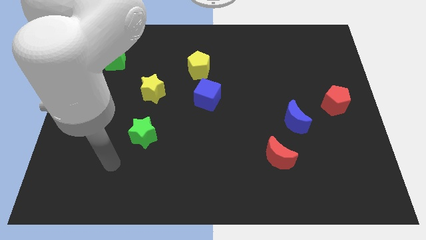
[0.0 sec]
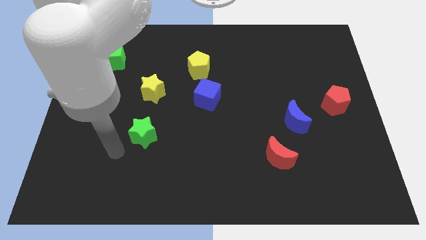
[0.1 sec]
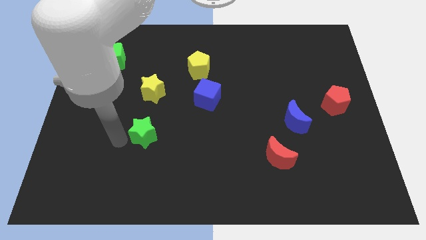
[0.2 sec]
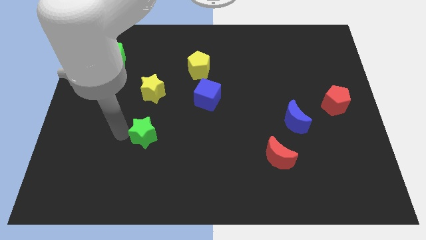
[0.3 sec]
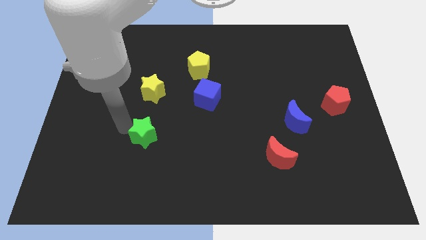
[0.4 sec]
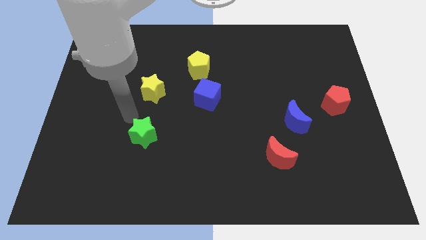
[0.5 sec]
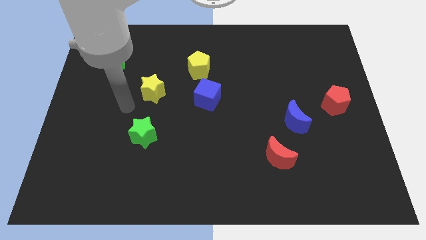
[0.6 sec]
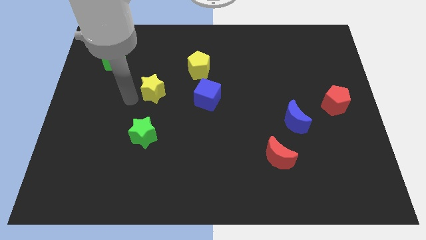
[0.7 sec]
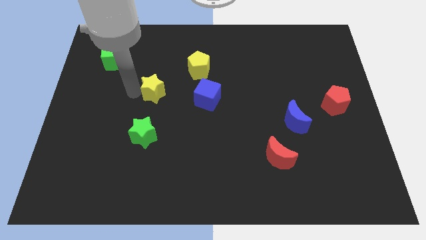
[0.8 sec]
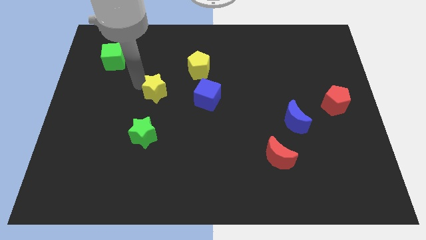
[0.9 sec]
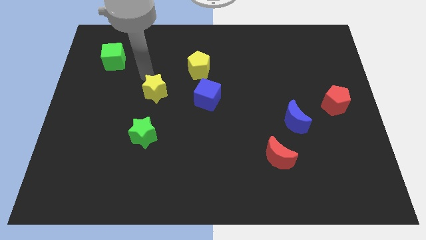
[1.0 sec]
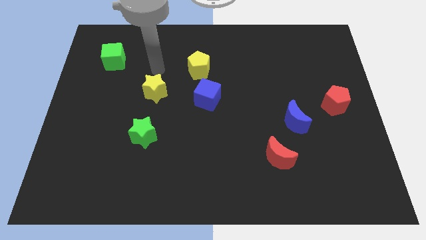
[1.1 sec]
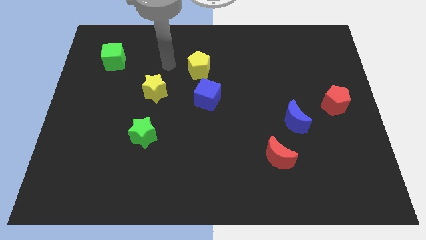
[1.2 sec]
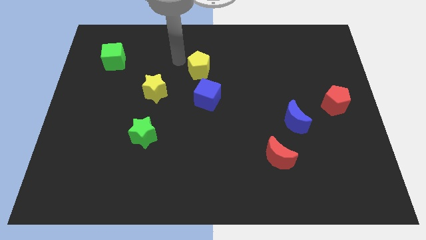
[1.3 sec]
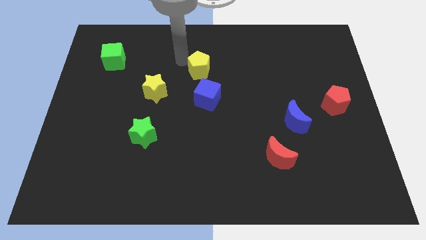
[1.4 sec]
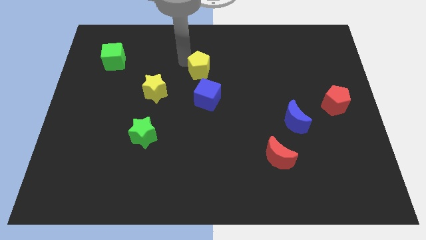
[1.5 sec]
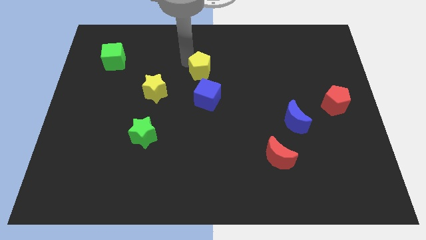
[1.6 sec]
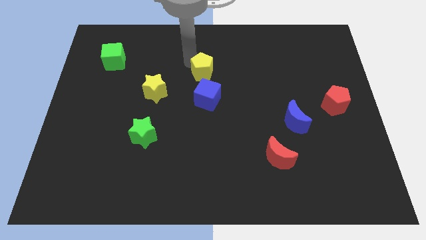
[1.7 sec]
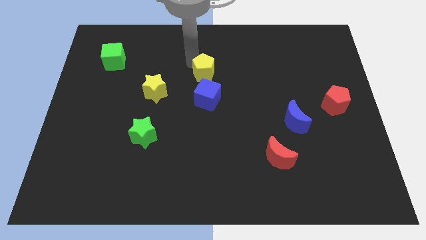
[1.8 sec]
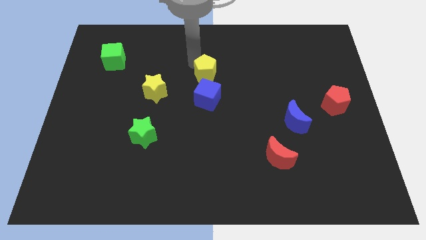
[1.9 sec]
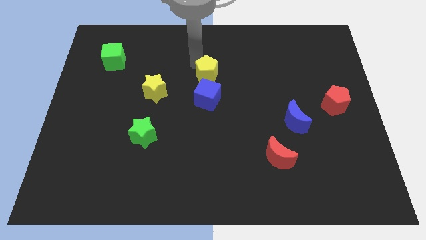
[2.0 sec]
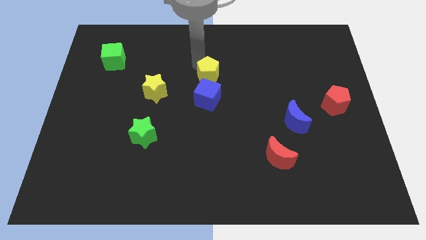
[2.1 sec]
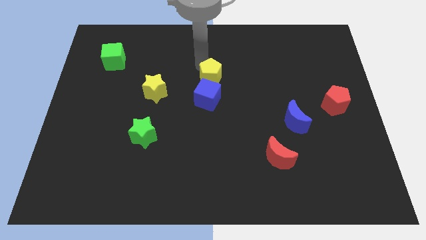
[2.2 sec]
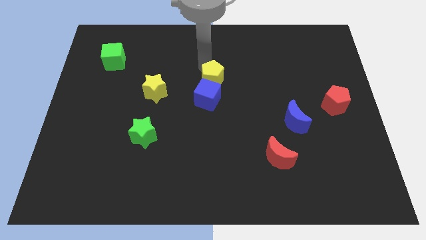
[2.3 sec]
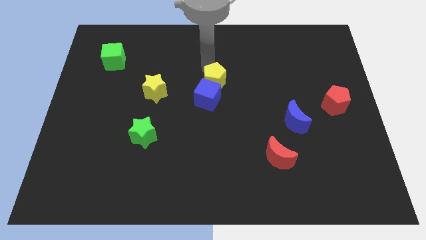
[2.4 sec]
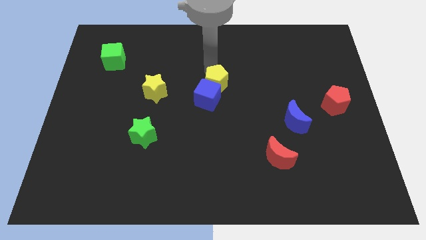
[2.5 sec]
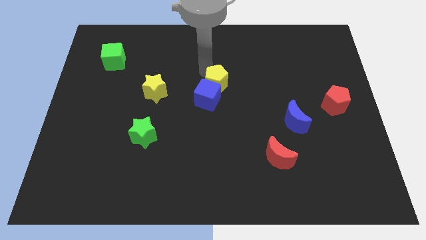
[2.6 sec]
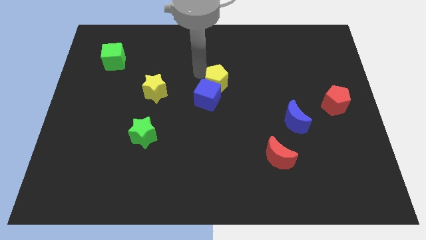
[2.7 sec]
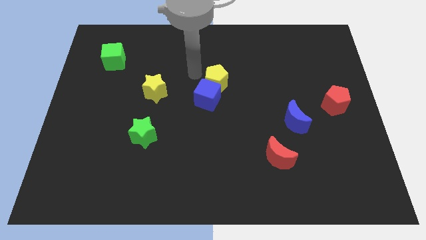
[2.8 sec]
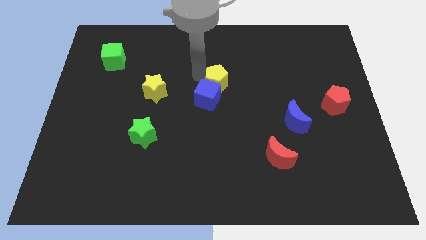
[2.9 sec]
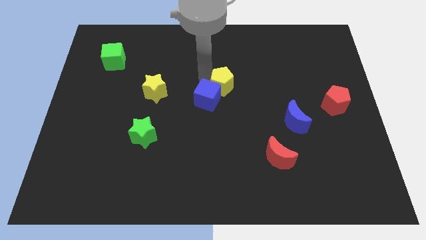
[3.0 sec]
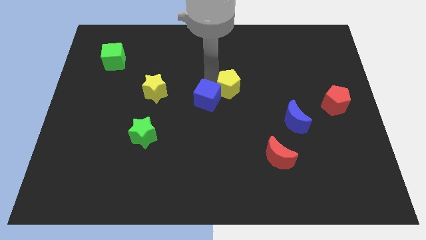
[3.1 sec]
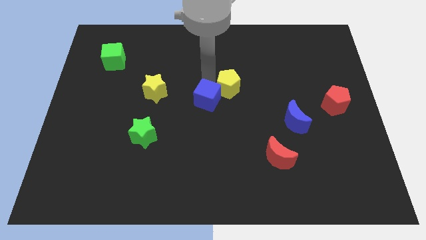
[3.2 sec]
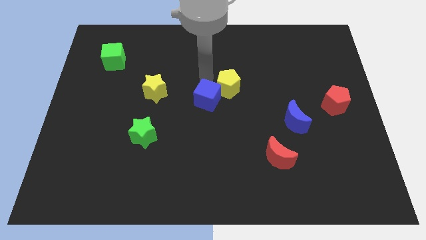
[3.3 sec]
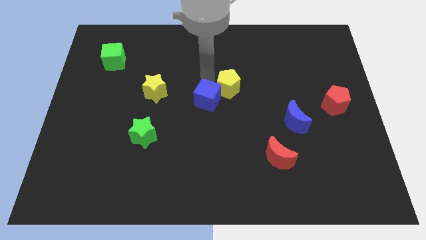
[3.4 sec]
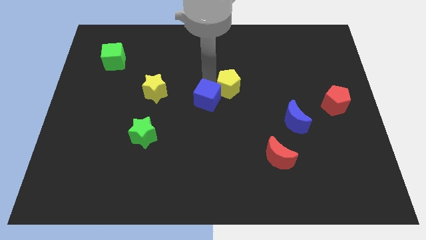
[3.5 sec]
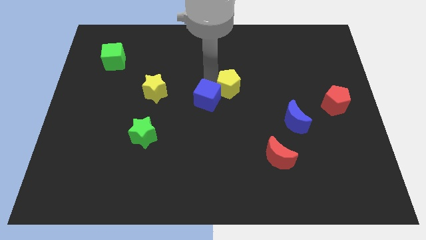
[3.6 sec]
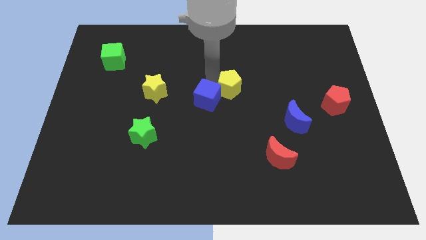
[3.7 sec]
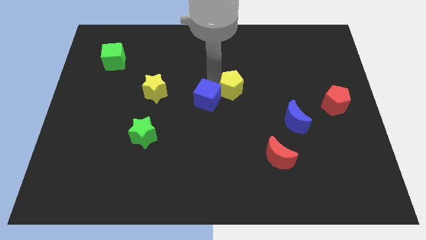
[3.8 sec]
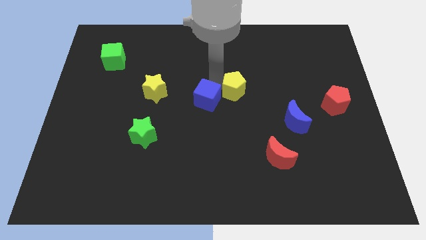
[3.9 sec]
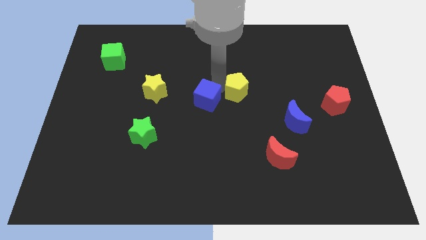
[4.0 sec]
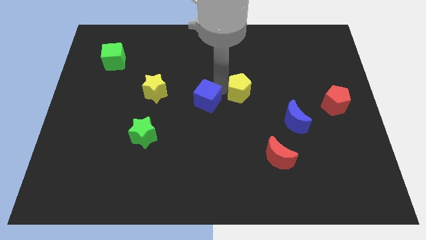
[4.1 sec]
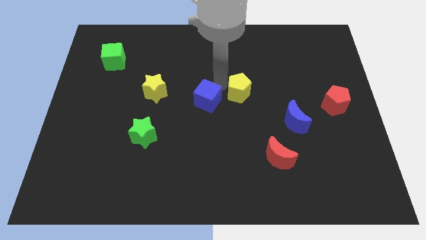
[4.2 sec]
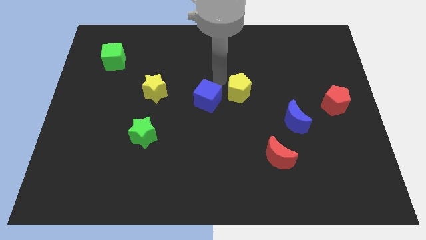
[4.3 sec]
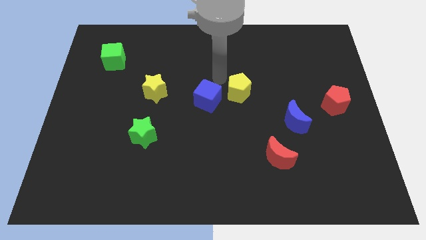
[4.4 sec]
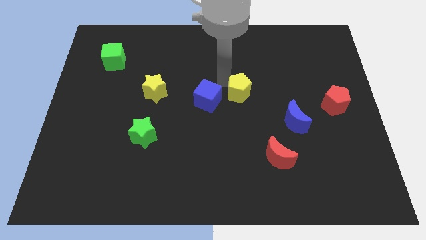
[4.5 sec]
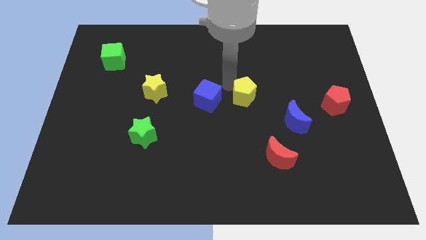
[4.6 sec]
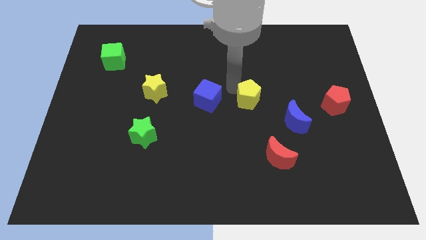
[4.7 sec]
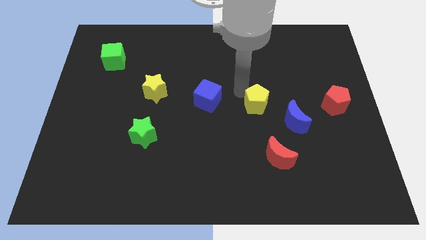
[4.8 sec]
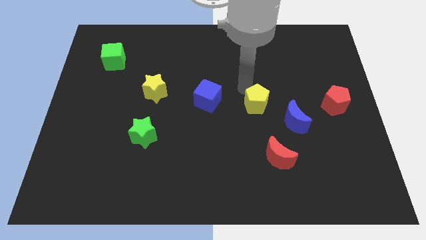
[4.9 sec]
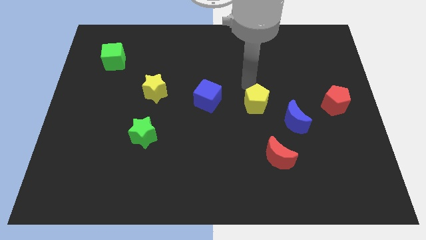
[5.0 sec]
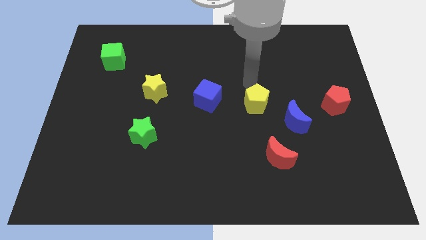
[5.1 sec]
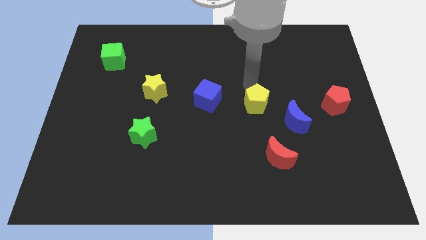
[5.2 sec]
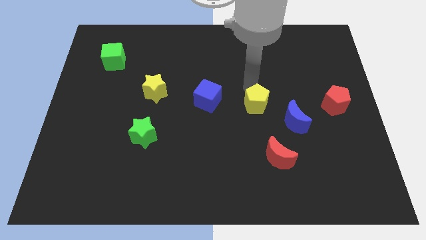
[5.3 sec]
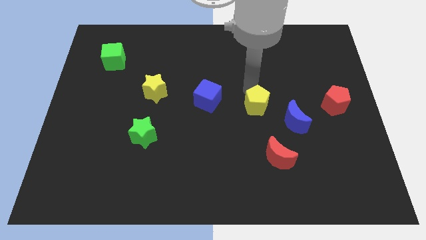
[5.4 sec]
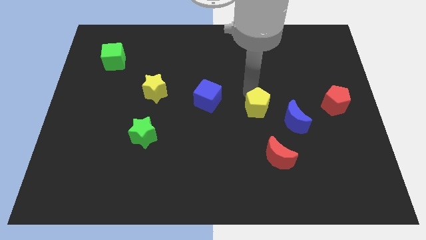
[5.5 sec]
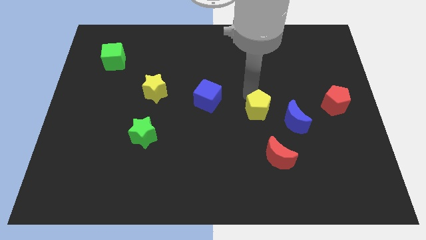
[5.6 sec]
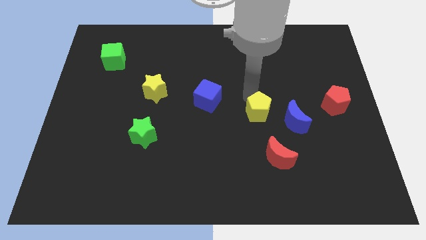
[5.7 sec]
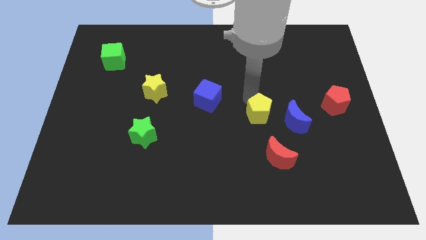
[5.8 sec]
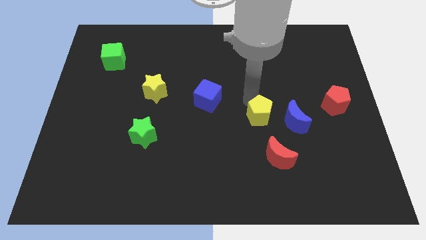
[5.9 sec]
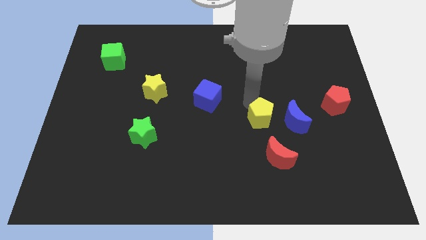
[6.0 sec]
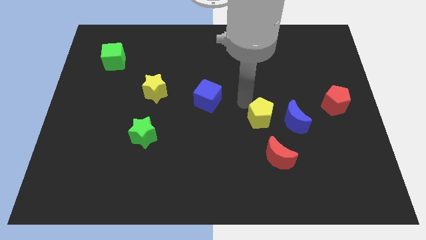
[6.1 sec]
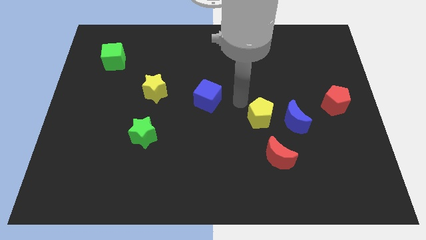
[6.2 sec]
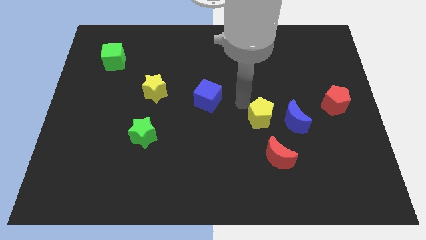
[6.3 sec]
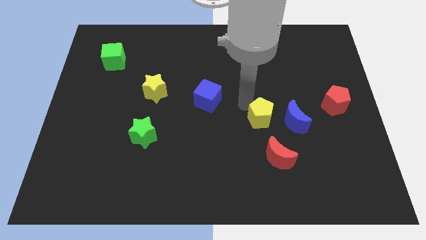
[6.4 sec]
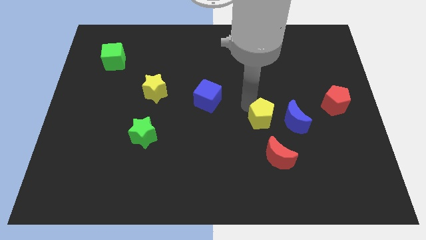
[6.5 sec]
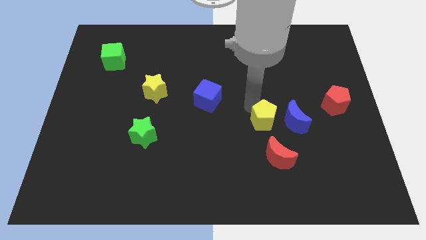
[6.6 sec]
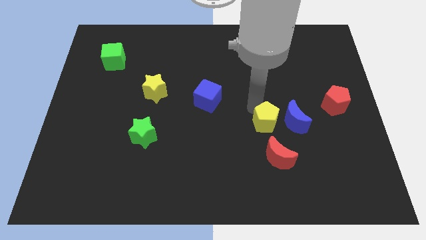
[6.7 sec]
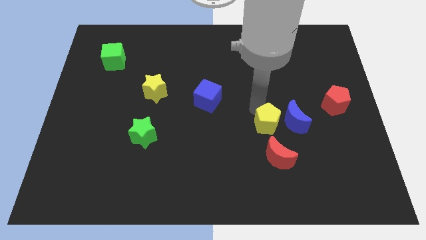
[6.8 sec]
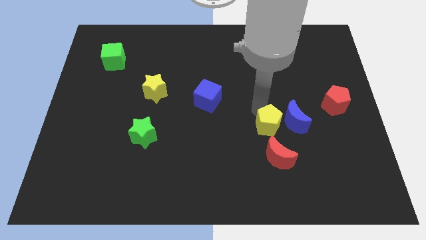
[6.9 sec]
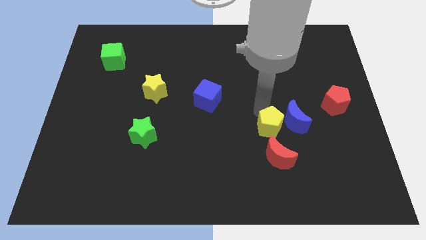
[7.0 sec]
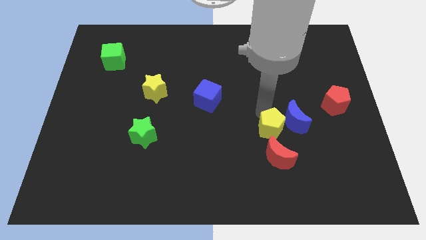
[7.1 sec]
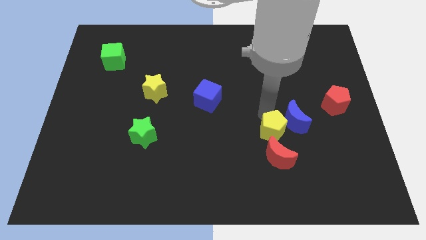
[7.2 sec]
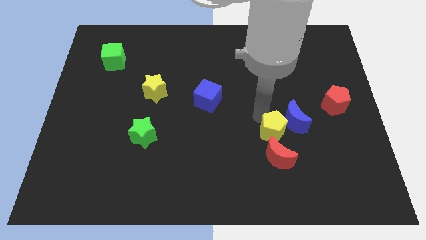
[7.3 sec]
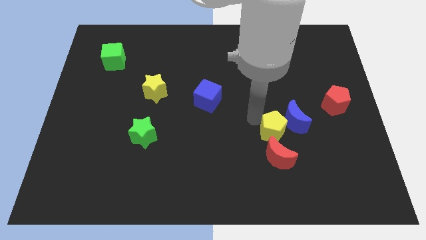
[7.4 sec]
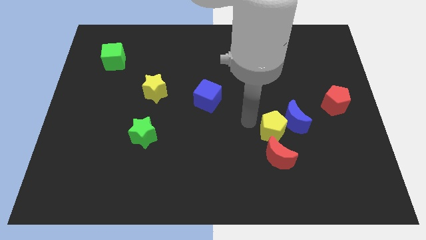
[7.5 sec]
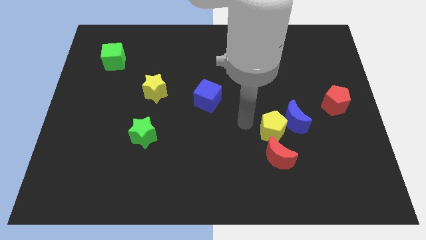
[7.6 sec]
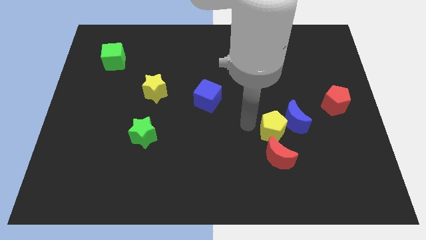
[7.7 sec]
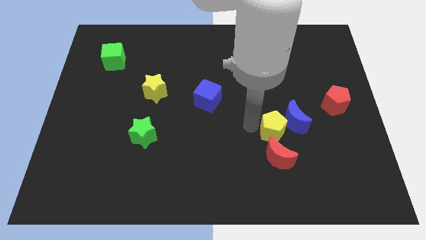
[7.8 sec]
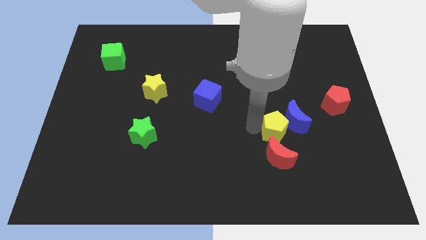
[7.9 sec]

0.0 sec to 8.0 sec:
put the yellow pentagon to the top right side of the red moon
